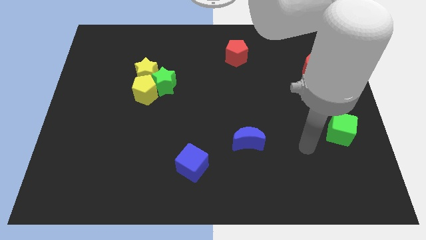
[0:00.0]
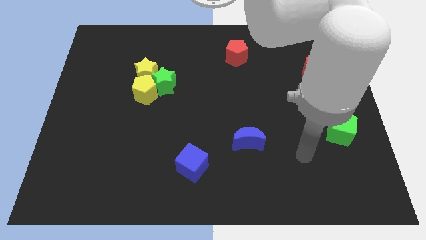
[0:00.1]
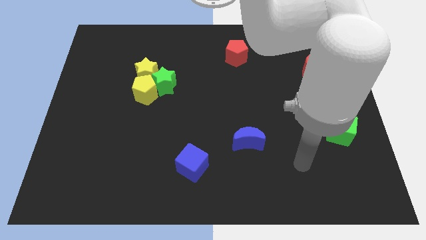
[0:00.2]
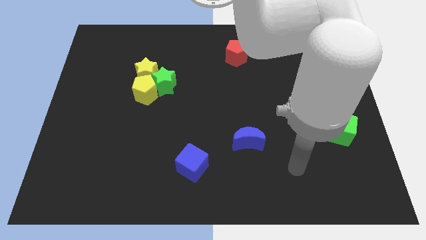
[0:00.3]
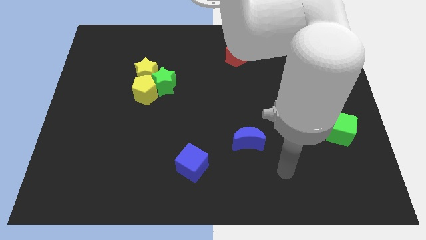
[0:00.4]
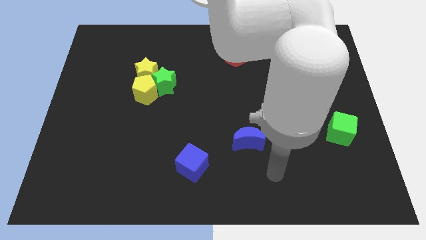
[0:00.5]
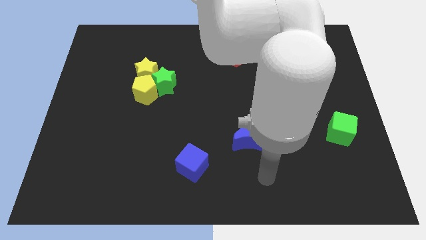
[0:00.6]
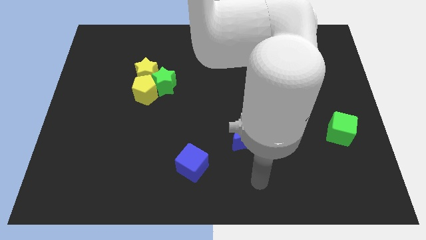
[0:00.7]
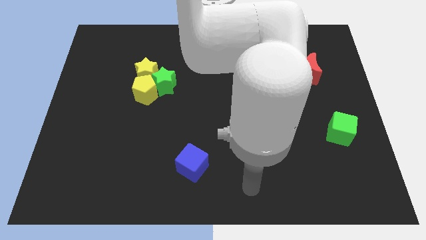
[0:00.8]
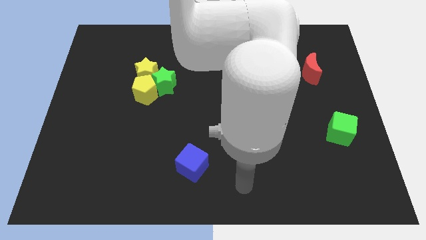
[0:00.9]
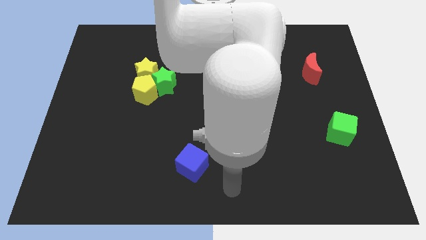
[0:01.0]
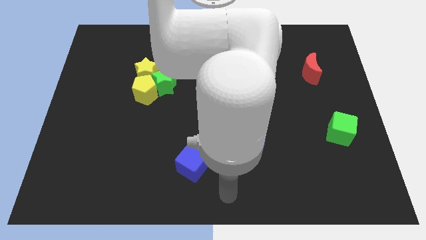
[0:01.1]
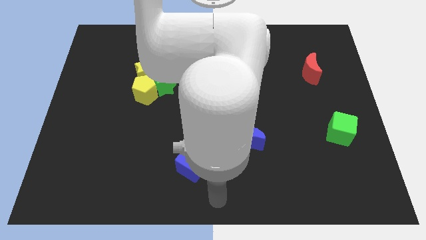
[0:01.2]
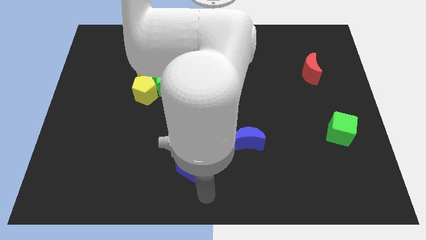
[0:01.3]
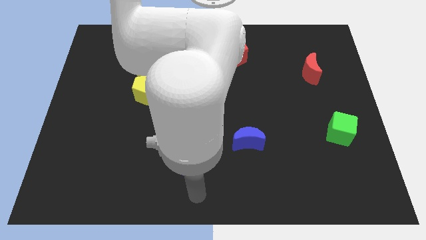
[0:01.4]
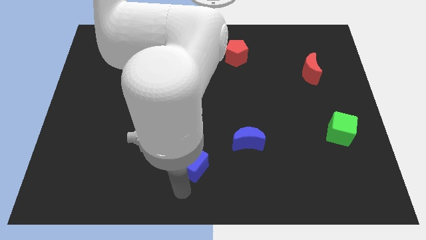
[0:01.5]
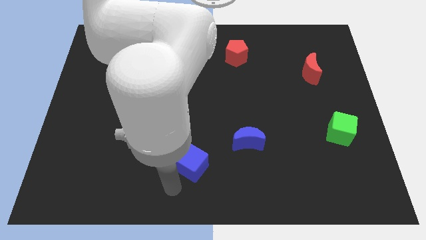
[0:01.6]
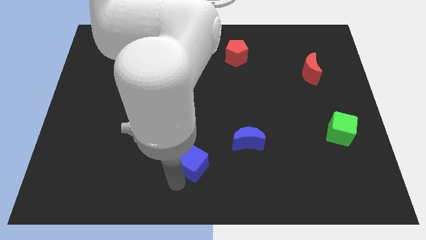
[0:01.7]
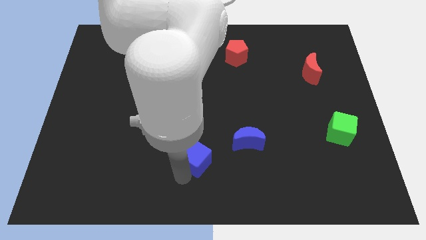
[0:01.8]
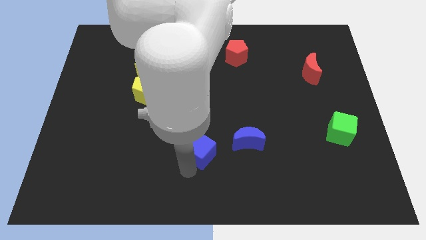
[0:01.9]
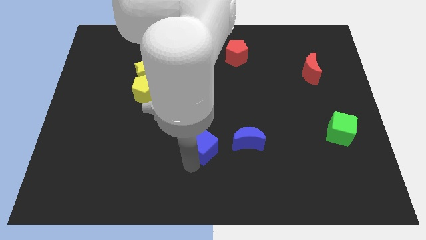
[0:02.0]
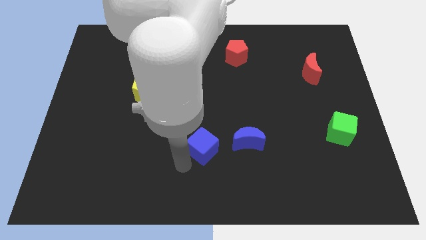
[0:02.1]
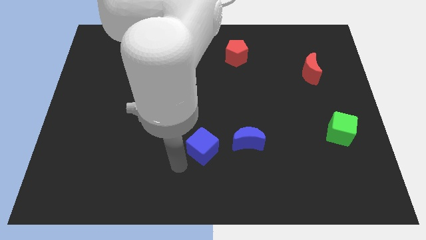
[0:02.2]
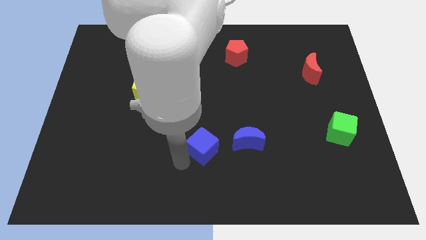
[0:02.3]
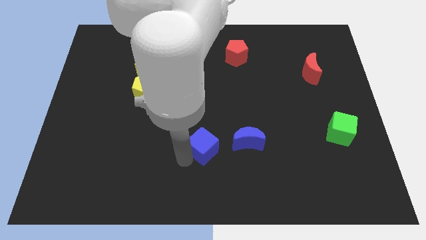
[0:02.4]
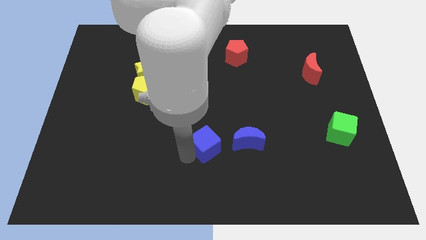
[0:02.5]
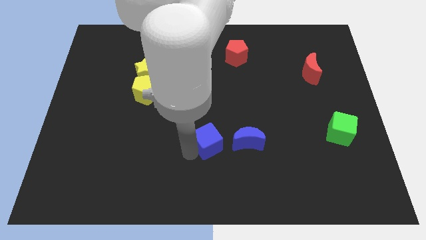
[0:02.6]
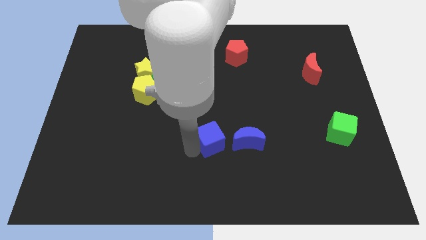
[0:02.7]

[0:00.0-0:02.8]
move the blue cube upwards and then right a bit

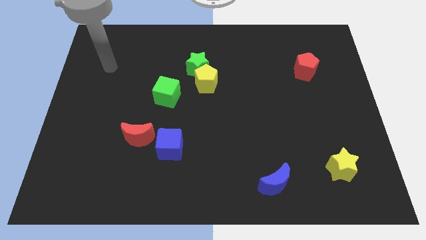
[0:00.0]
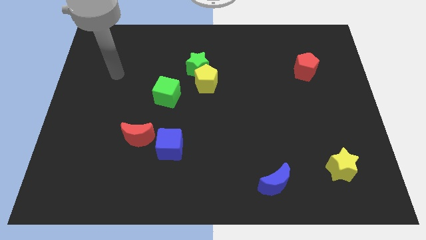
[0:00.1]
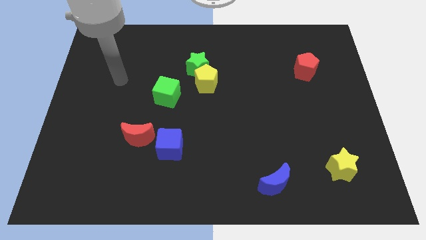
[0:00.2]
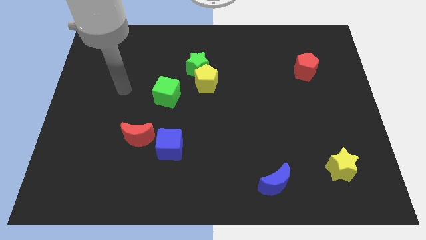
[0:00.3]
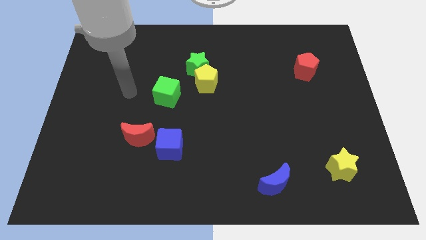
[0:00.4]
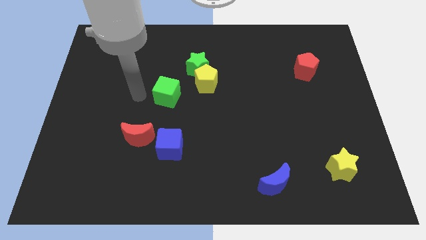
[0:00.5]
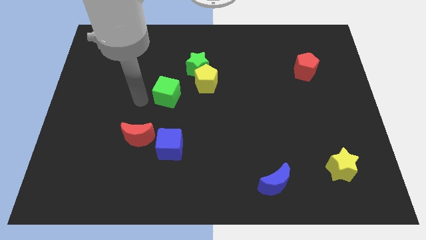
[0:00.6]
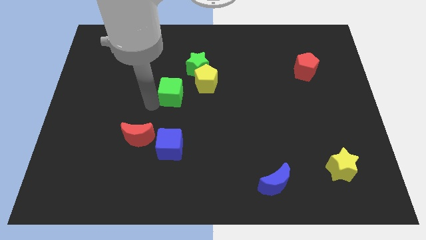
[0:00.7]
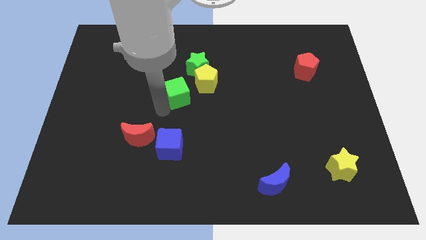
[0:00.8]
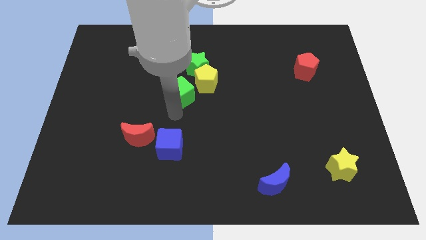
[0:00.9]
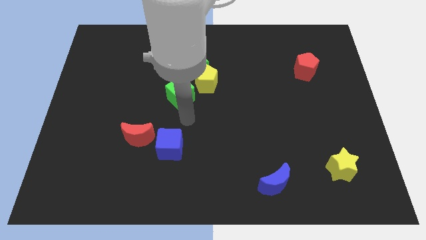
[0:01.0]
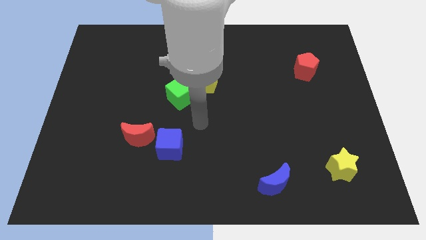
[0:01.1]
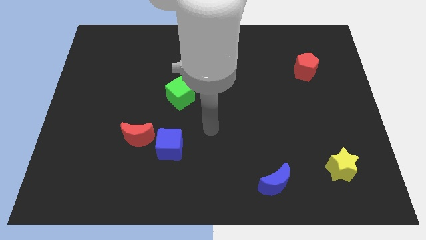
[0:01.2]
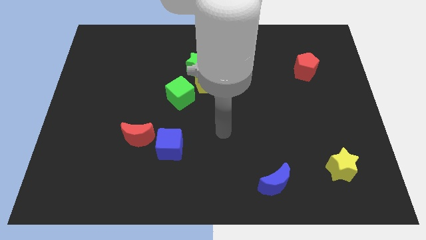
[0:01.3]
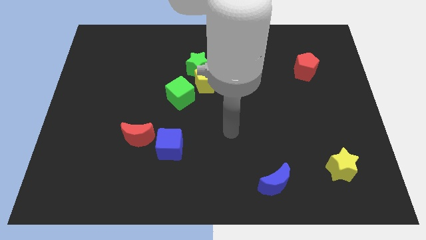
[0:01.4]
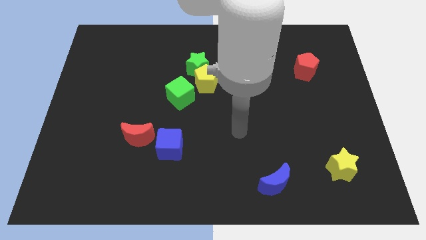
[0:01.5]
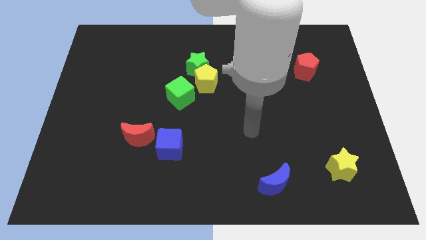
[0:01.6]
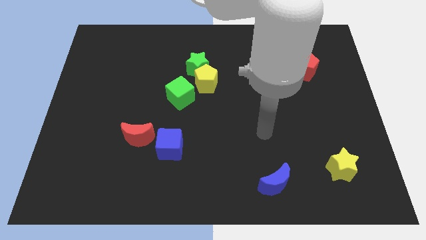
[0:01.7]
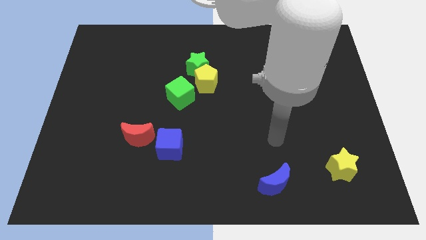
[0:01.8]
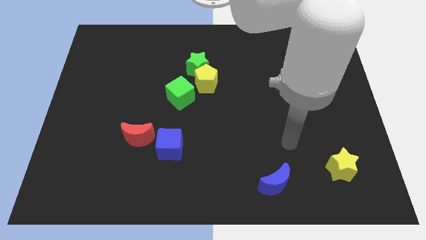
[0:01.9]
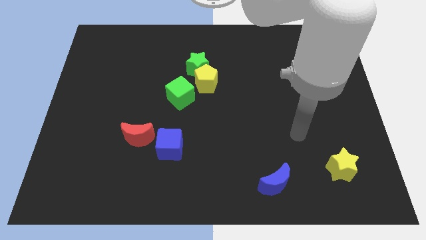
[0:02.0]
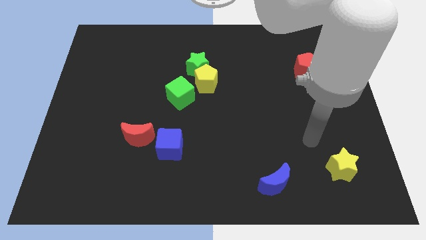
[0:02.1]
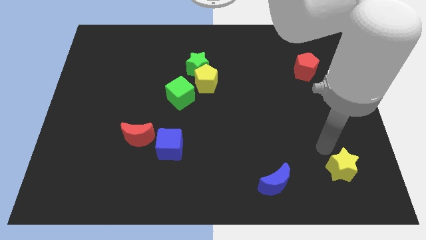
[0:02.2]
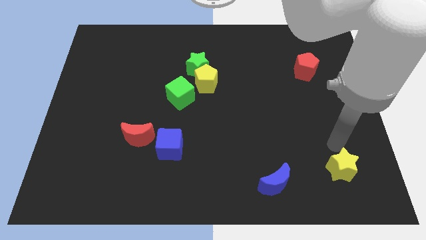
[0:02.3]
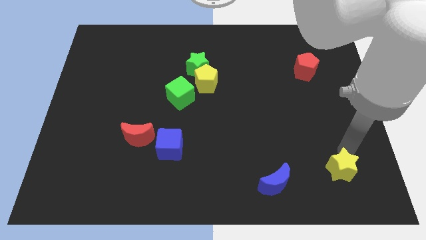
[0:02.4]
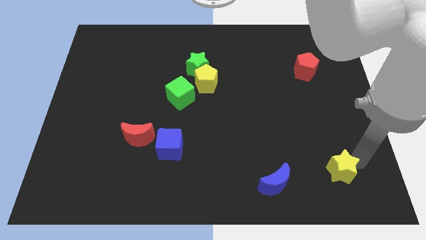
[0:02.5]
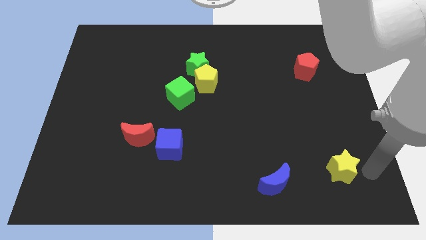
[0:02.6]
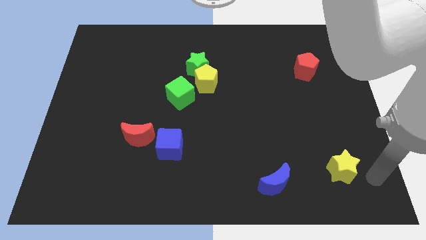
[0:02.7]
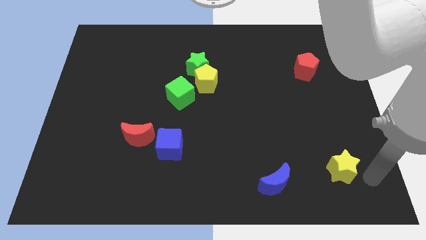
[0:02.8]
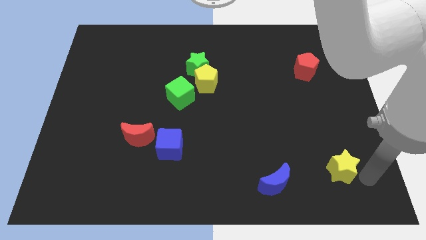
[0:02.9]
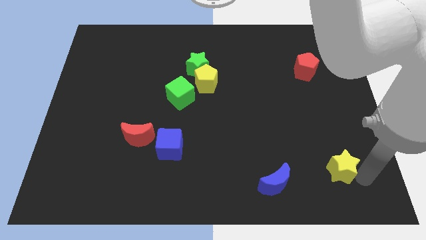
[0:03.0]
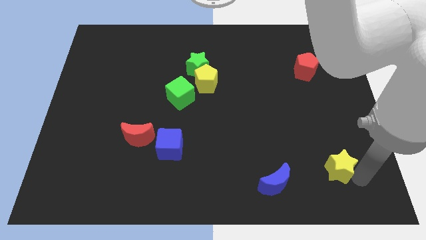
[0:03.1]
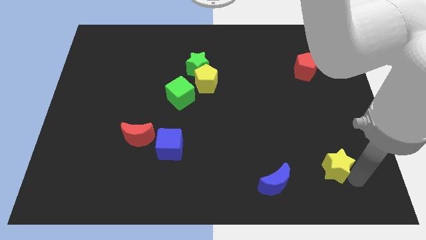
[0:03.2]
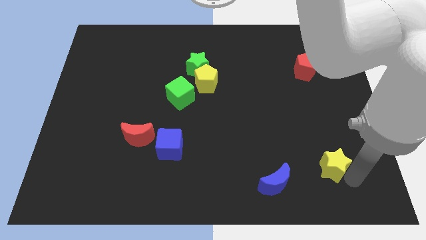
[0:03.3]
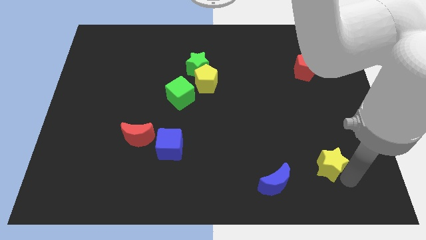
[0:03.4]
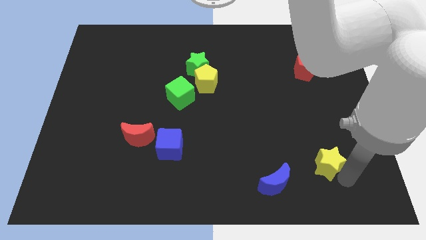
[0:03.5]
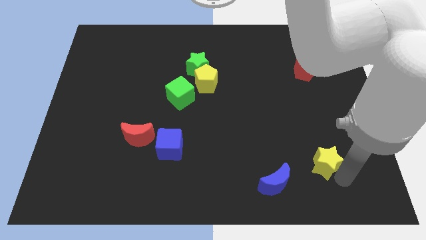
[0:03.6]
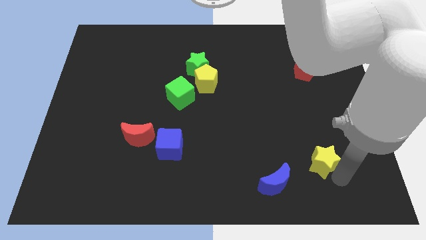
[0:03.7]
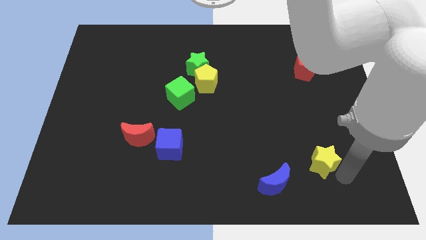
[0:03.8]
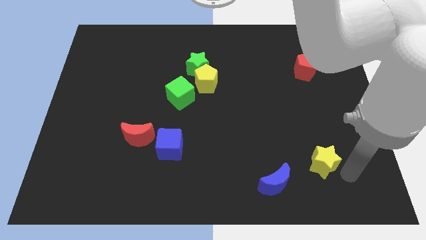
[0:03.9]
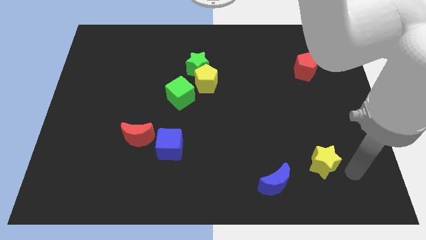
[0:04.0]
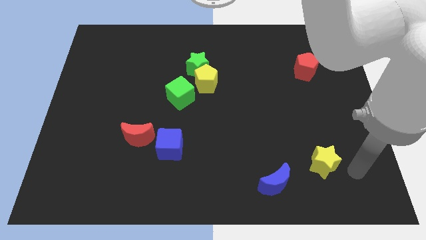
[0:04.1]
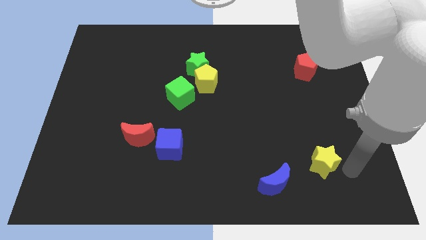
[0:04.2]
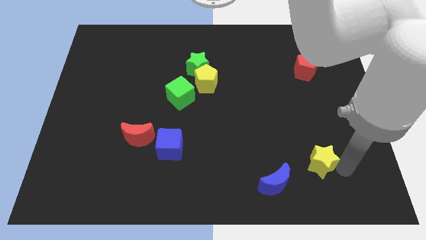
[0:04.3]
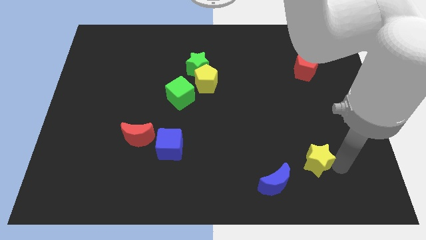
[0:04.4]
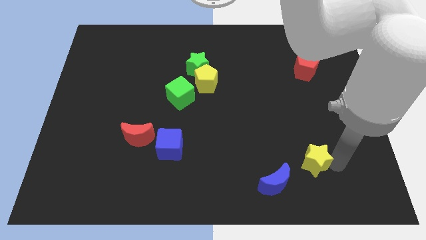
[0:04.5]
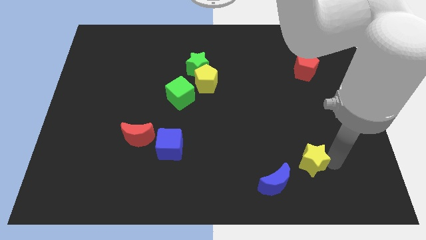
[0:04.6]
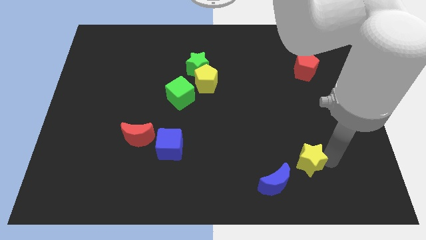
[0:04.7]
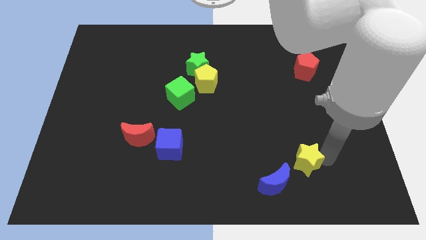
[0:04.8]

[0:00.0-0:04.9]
push the yellow star left a little bit

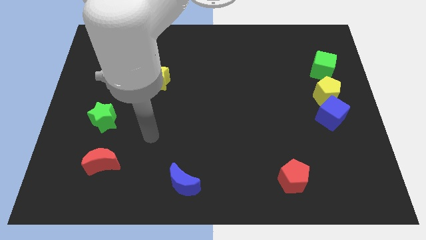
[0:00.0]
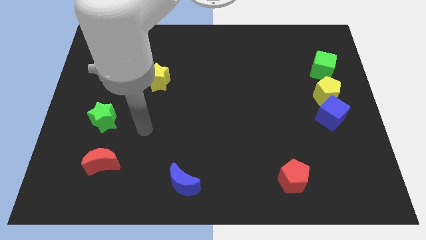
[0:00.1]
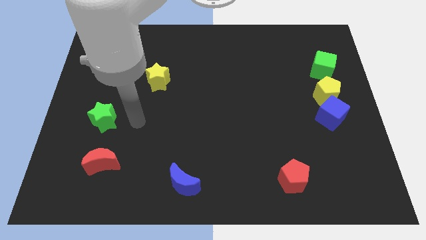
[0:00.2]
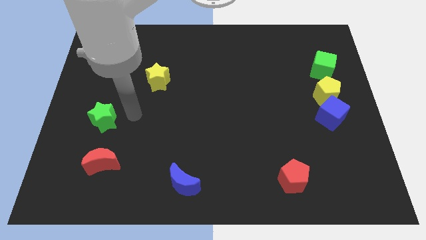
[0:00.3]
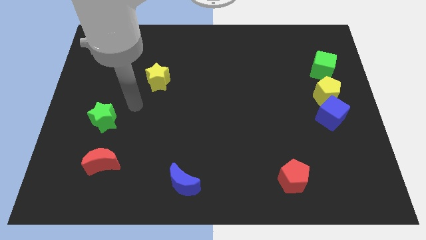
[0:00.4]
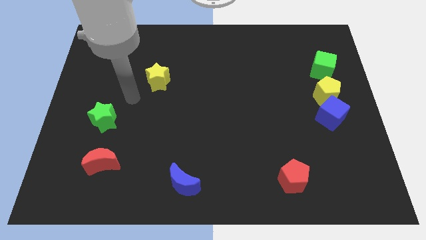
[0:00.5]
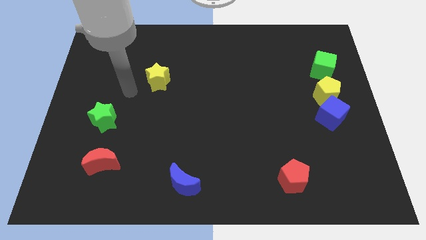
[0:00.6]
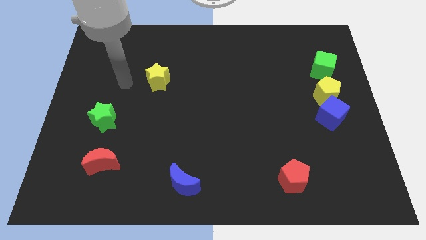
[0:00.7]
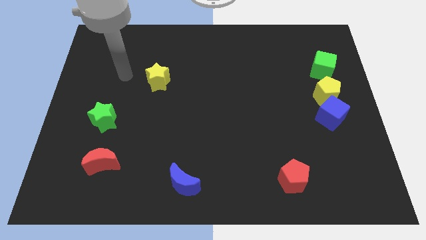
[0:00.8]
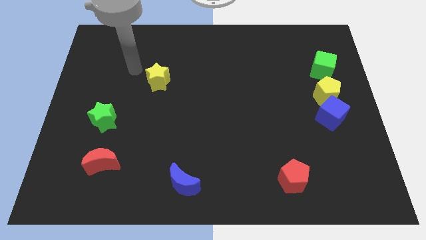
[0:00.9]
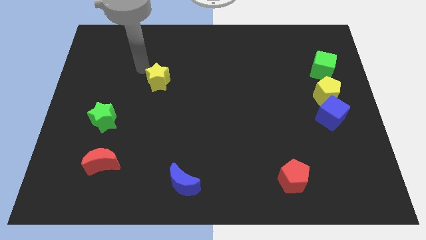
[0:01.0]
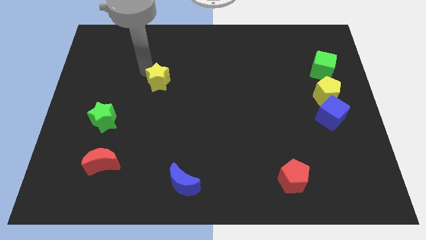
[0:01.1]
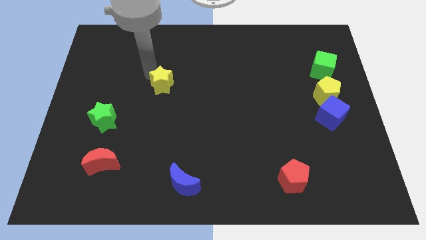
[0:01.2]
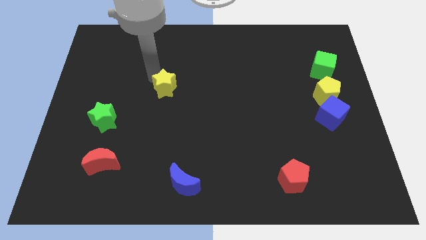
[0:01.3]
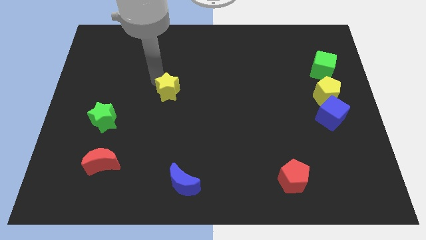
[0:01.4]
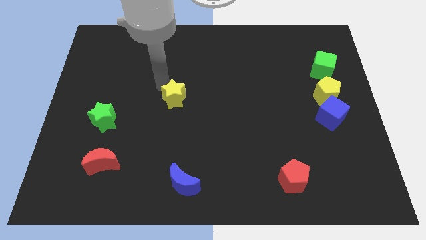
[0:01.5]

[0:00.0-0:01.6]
slide the yellow star downwards and right slightly
